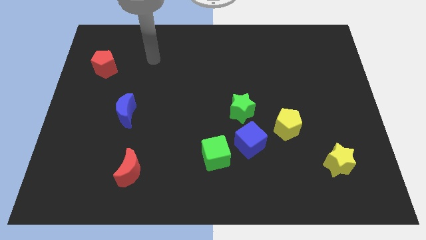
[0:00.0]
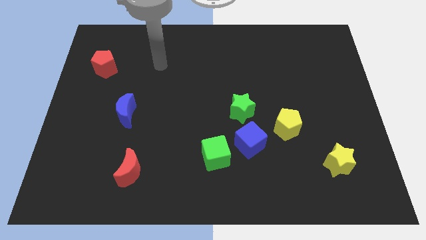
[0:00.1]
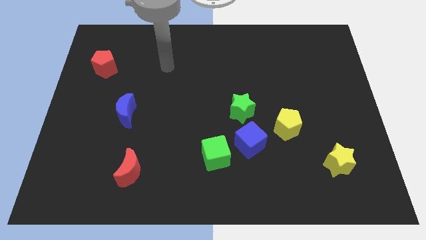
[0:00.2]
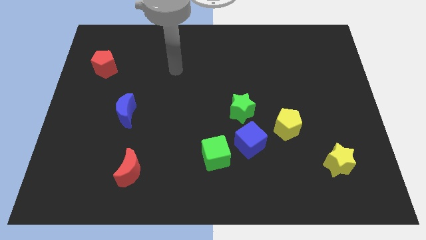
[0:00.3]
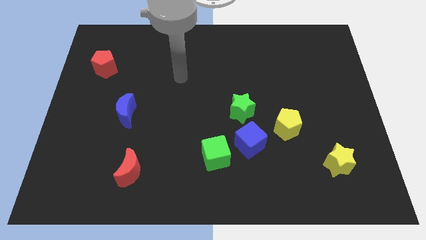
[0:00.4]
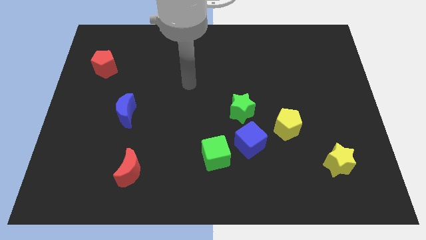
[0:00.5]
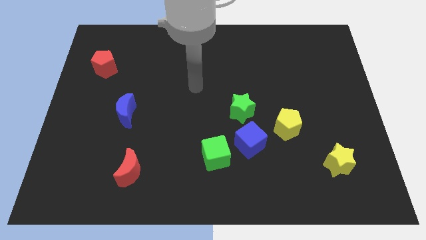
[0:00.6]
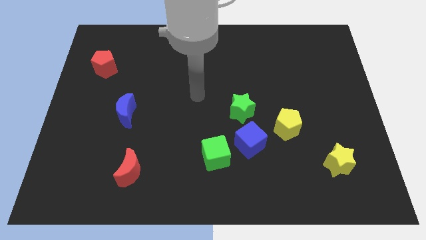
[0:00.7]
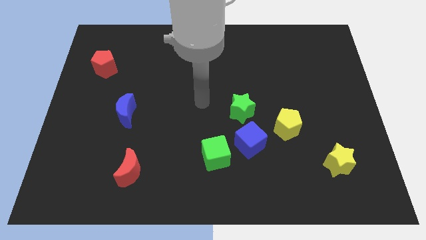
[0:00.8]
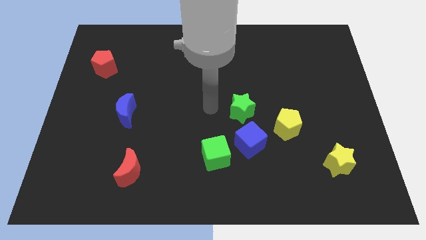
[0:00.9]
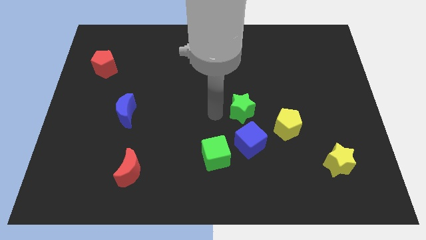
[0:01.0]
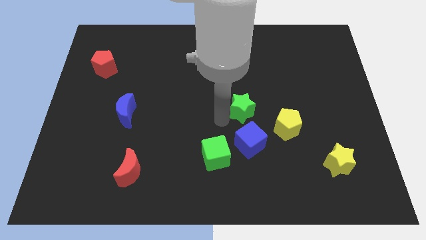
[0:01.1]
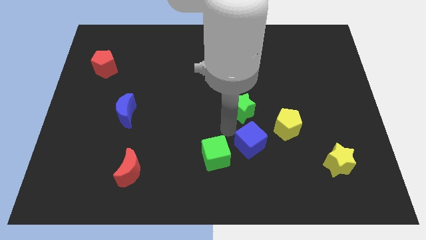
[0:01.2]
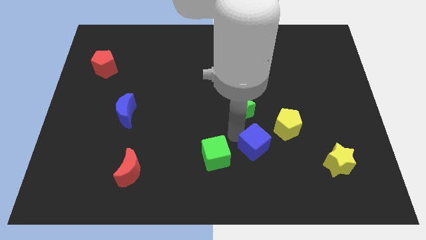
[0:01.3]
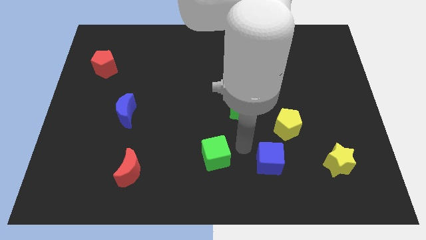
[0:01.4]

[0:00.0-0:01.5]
move the green cube away from the blue cube

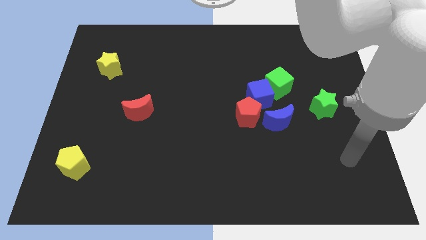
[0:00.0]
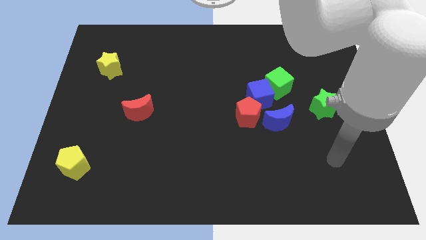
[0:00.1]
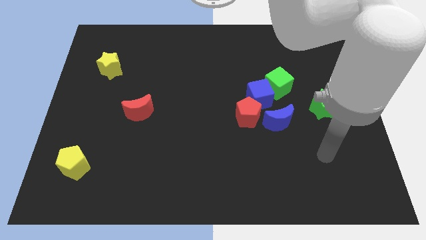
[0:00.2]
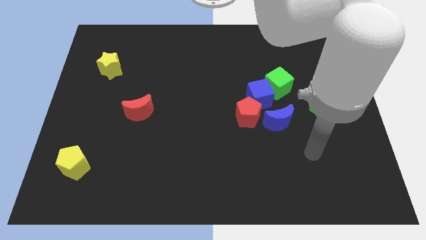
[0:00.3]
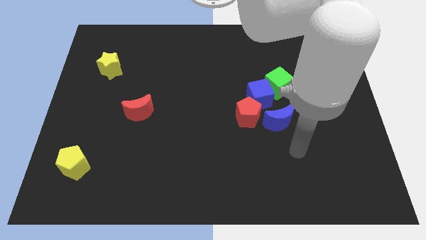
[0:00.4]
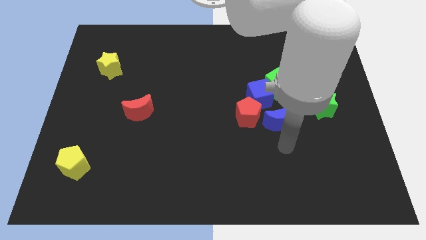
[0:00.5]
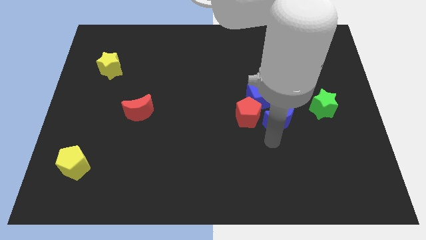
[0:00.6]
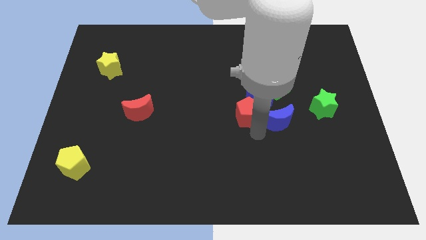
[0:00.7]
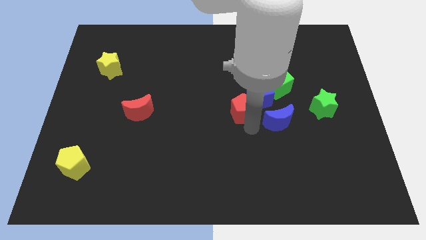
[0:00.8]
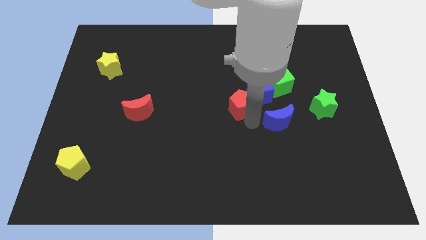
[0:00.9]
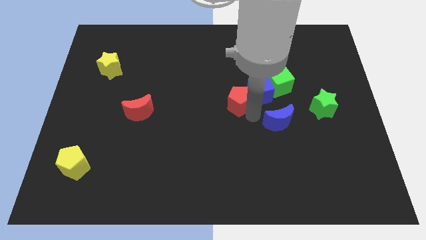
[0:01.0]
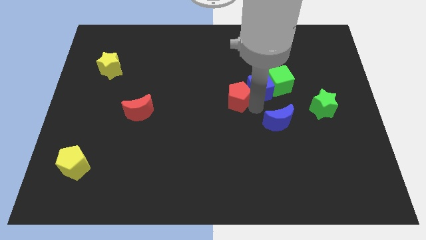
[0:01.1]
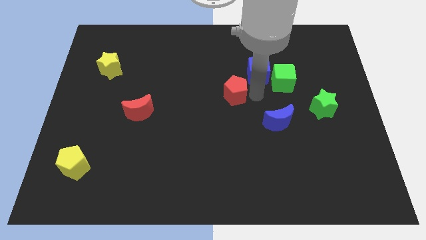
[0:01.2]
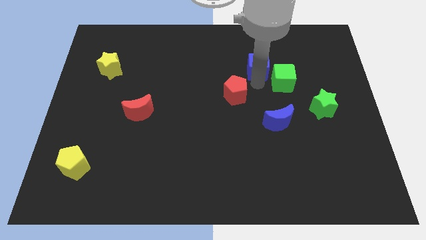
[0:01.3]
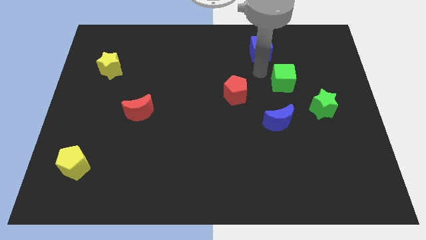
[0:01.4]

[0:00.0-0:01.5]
separate the green cube from the blue cube

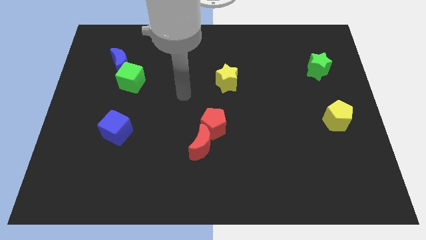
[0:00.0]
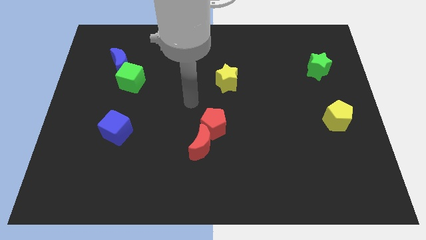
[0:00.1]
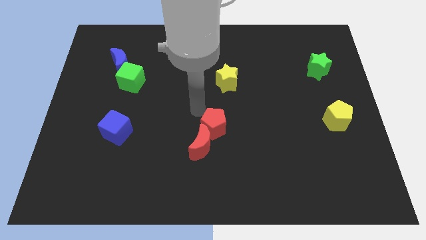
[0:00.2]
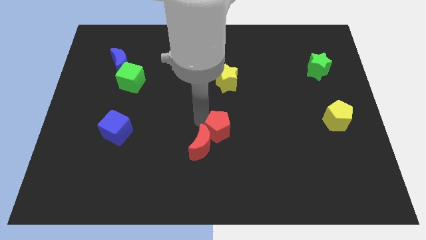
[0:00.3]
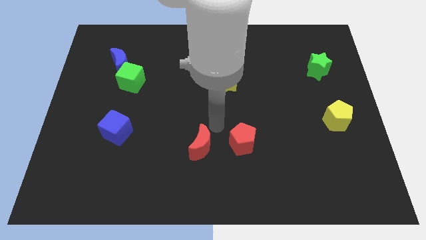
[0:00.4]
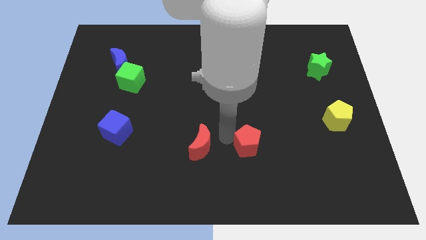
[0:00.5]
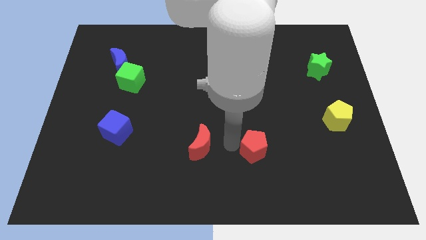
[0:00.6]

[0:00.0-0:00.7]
pull the red moon apart from the red pentagon

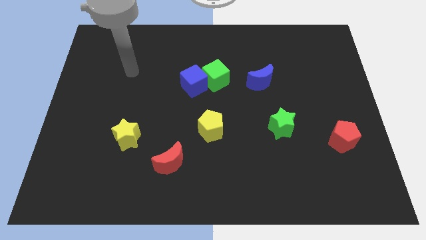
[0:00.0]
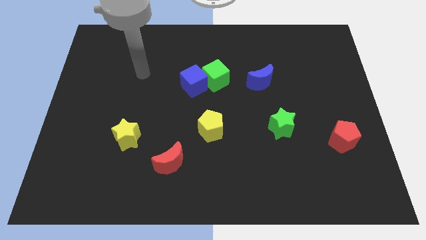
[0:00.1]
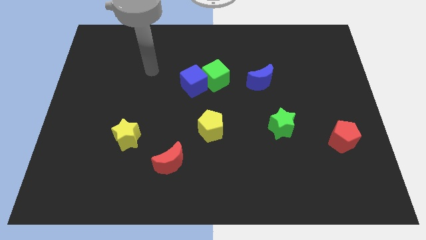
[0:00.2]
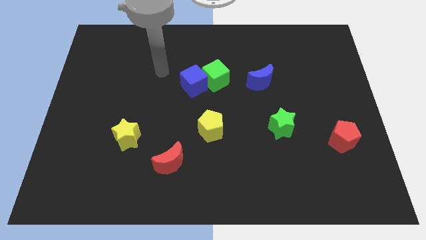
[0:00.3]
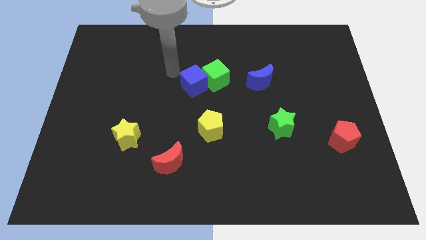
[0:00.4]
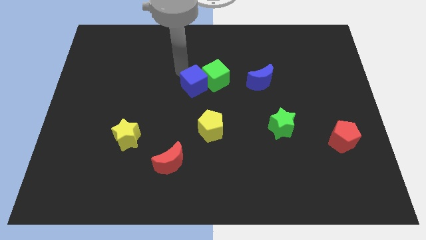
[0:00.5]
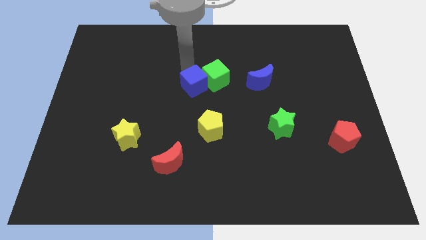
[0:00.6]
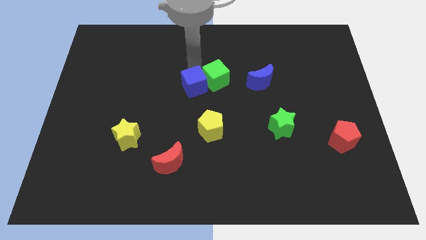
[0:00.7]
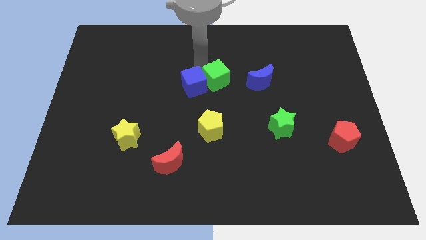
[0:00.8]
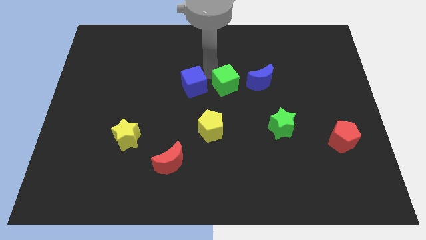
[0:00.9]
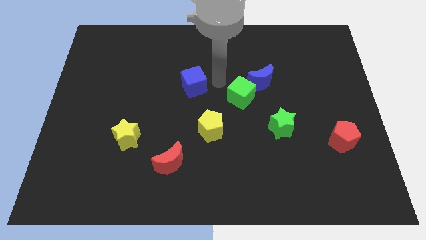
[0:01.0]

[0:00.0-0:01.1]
separate the blue cube from the green cube

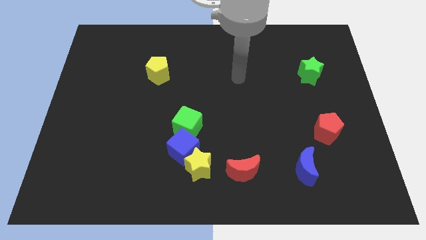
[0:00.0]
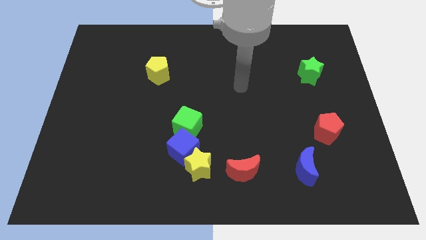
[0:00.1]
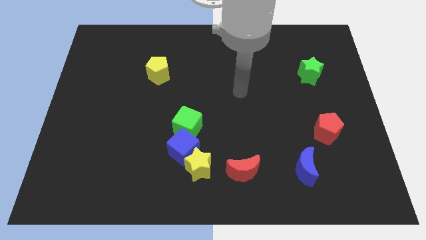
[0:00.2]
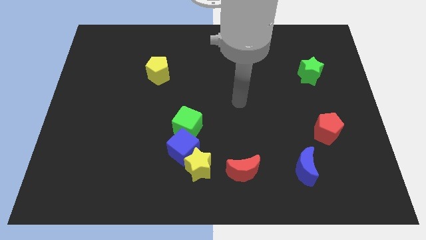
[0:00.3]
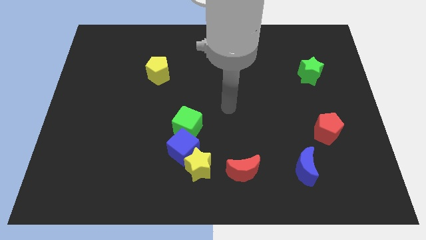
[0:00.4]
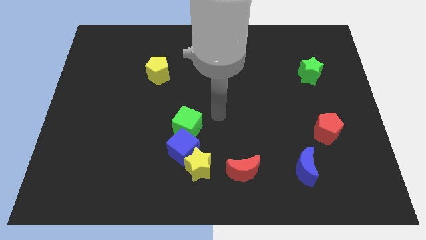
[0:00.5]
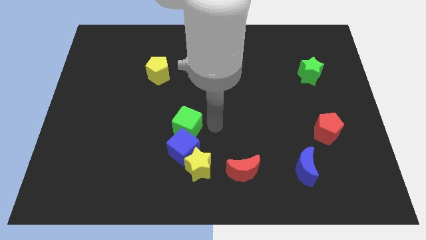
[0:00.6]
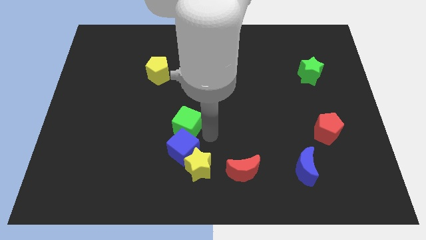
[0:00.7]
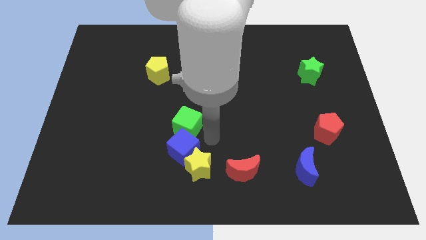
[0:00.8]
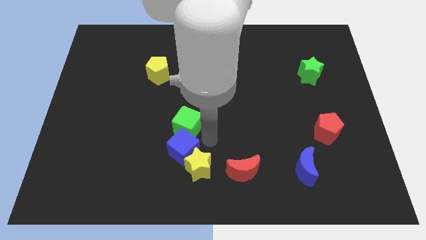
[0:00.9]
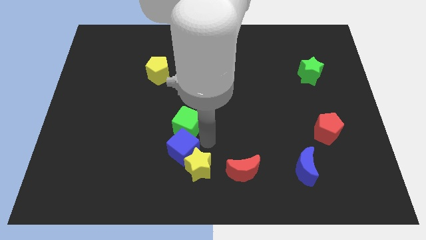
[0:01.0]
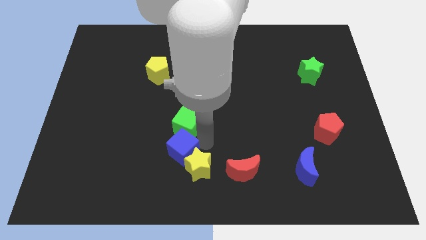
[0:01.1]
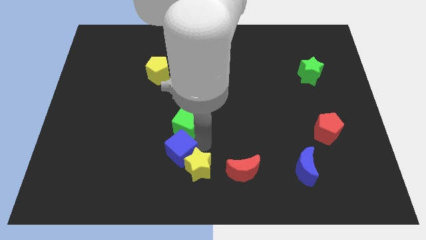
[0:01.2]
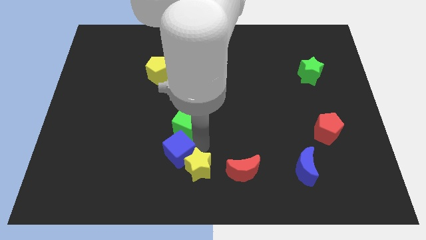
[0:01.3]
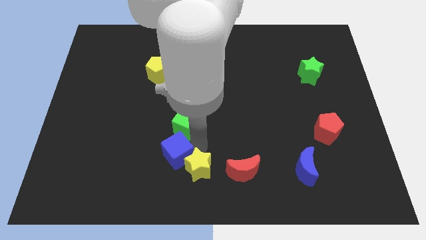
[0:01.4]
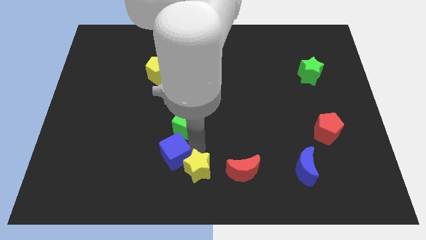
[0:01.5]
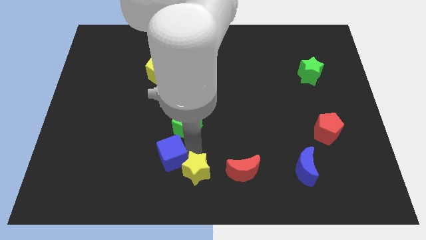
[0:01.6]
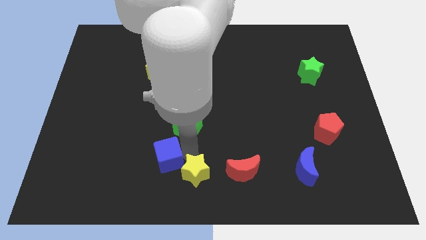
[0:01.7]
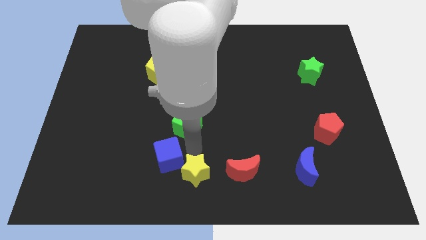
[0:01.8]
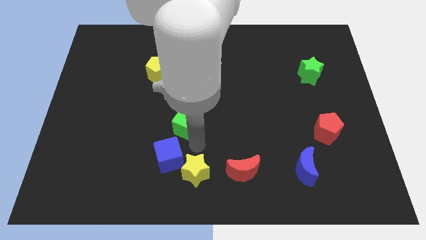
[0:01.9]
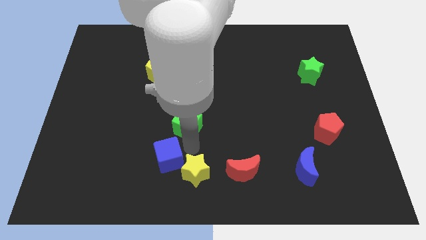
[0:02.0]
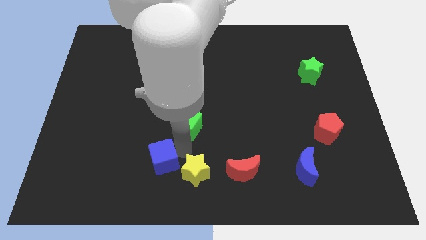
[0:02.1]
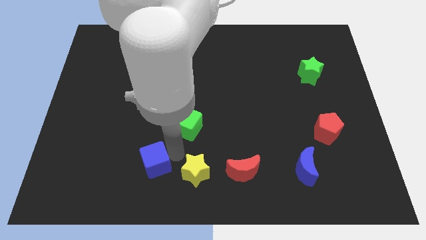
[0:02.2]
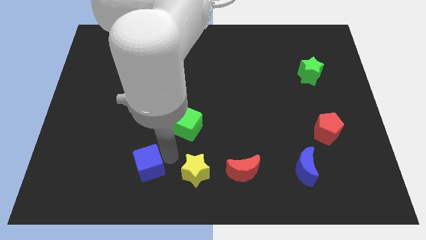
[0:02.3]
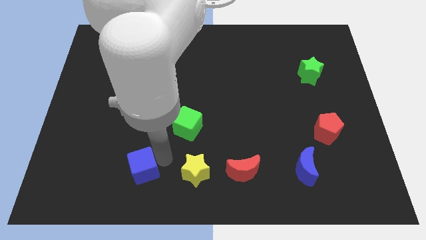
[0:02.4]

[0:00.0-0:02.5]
pull the blue cube apart from the yellow star and green cube

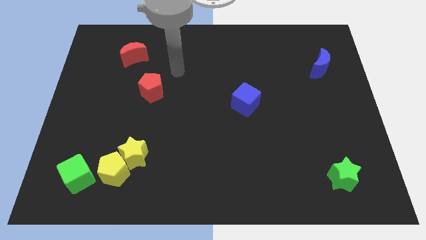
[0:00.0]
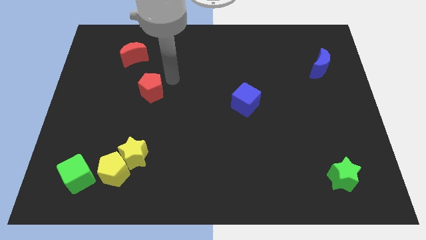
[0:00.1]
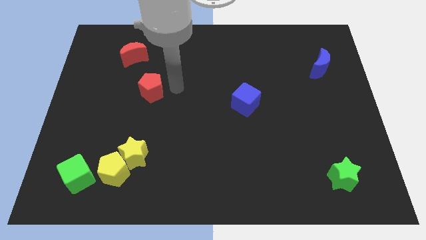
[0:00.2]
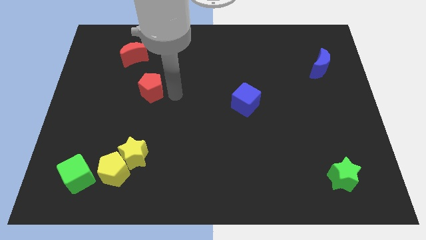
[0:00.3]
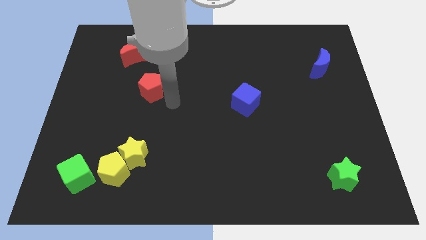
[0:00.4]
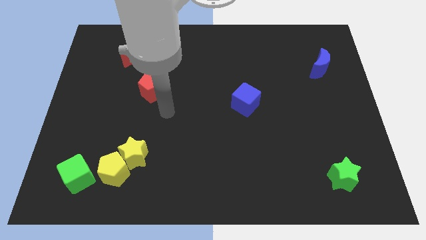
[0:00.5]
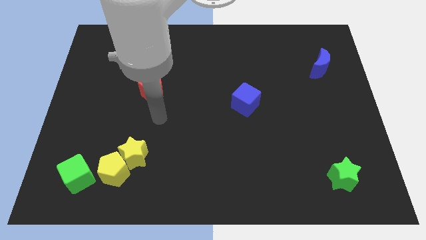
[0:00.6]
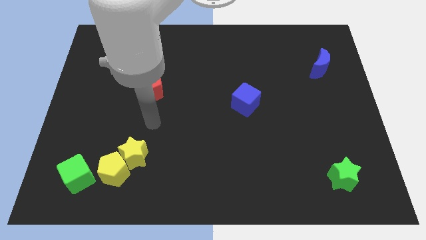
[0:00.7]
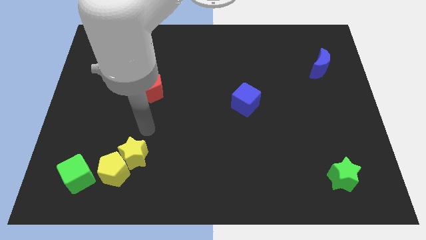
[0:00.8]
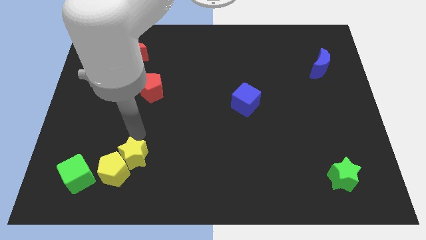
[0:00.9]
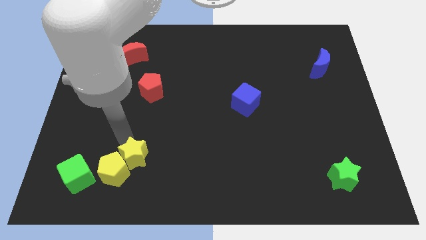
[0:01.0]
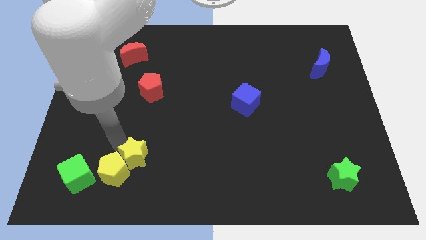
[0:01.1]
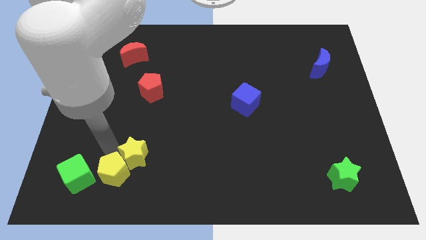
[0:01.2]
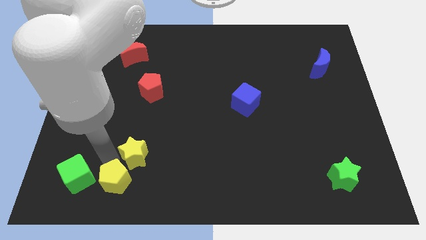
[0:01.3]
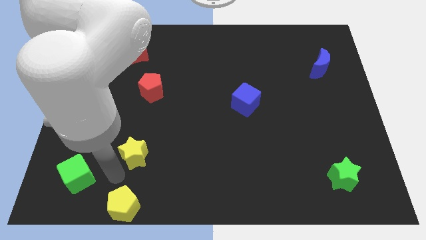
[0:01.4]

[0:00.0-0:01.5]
pull the yellow star apart from the yellow pentagon

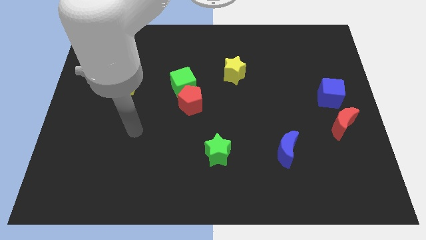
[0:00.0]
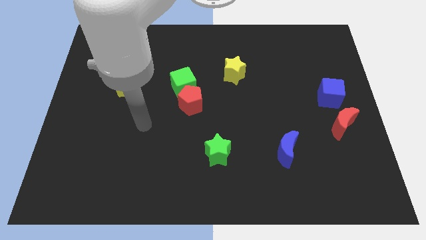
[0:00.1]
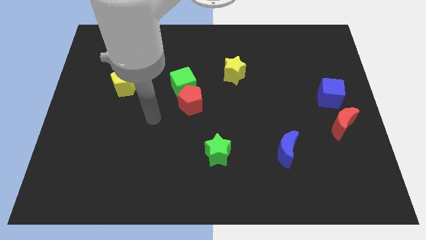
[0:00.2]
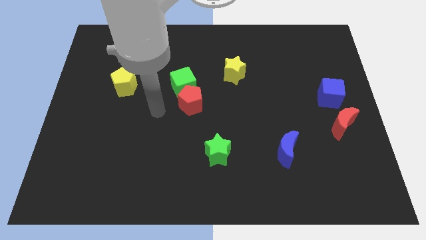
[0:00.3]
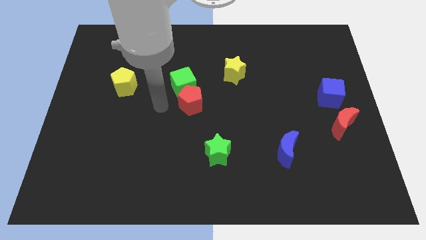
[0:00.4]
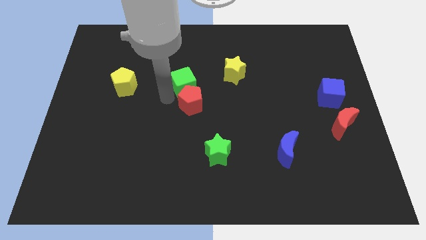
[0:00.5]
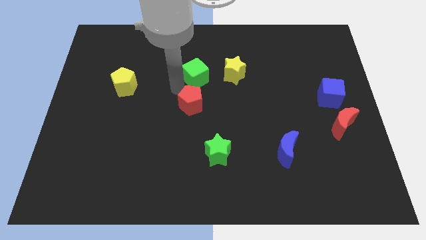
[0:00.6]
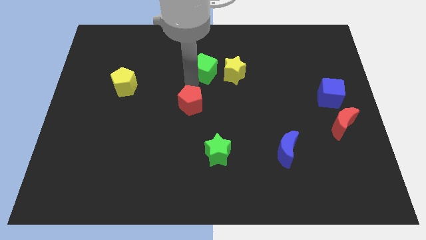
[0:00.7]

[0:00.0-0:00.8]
pull the red pentagon apart from the green cube
